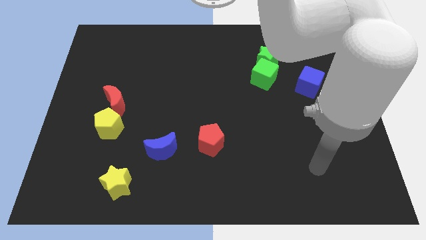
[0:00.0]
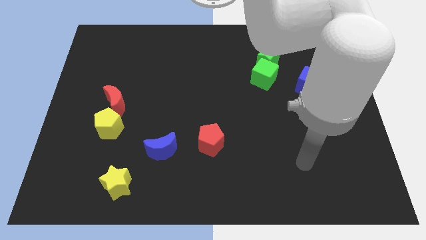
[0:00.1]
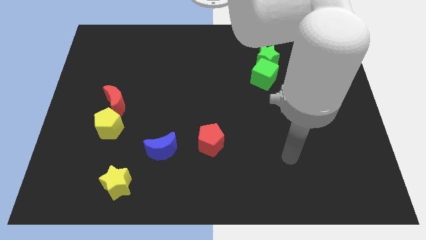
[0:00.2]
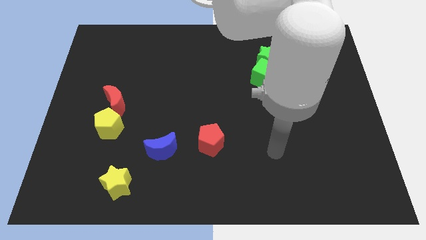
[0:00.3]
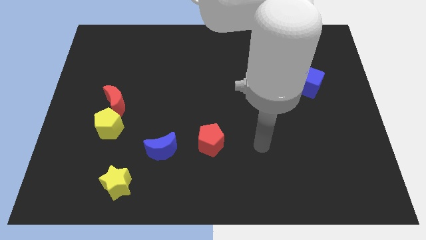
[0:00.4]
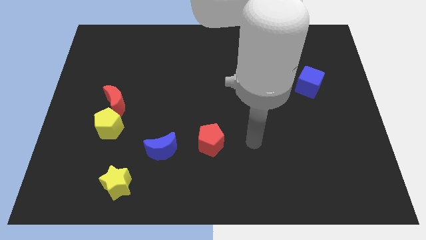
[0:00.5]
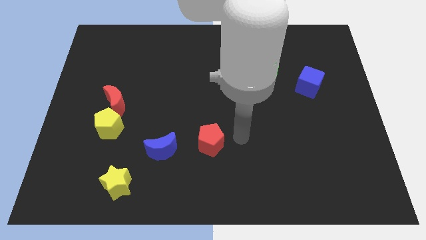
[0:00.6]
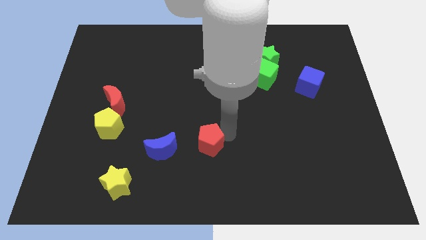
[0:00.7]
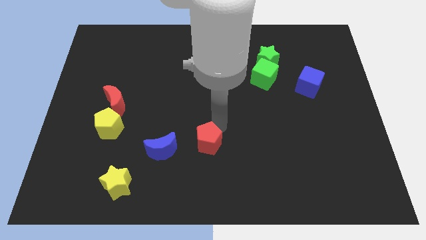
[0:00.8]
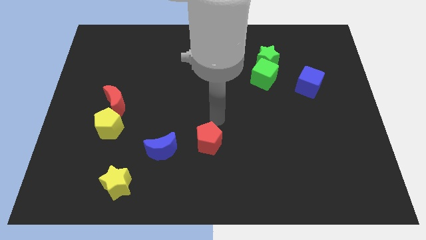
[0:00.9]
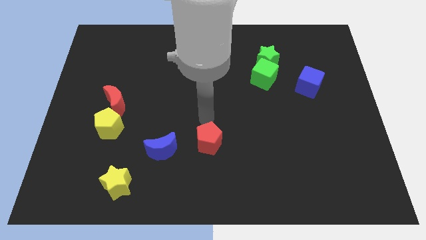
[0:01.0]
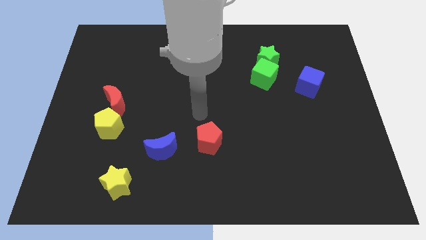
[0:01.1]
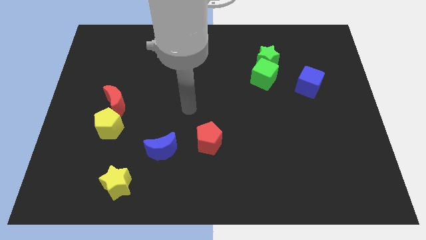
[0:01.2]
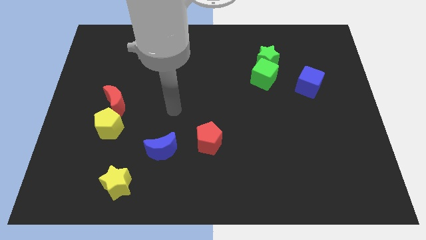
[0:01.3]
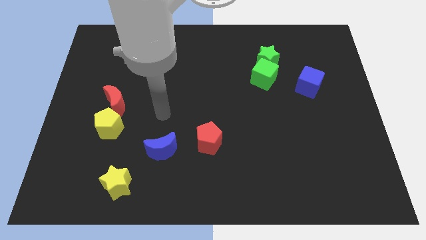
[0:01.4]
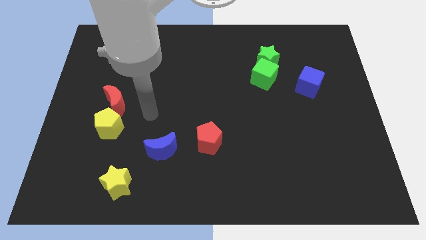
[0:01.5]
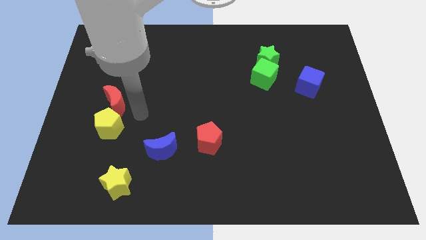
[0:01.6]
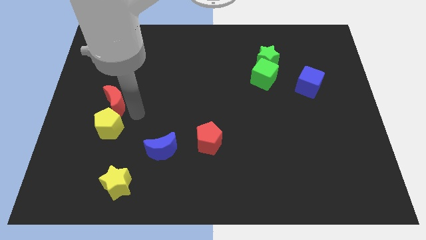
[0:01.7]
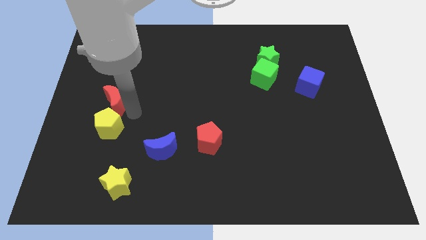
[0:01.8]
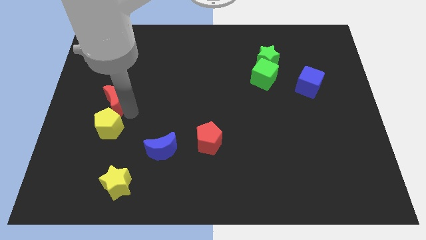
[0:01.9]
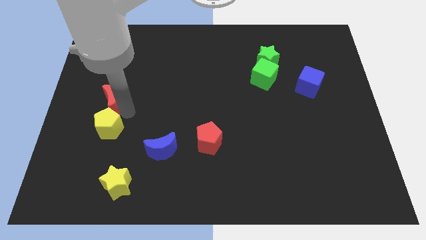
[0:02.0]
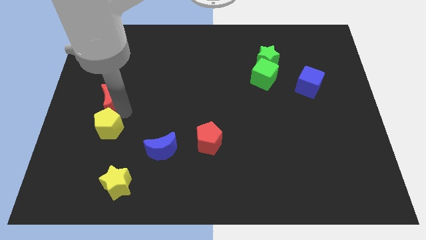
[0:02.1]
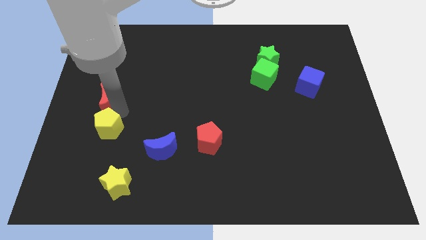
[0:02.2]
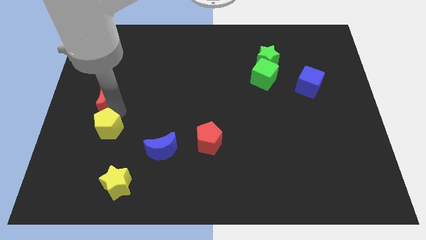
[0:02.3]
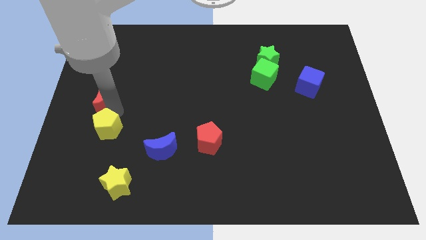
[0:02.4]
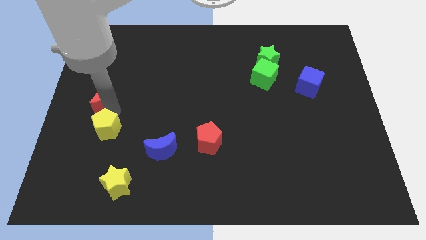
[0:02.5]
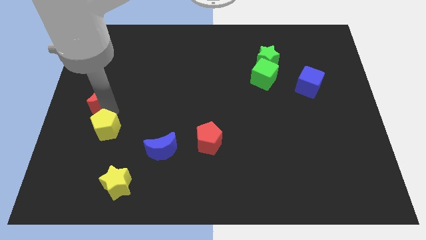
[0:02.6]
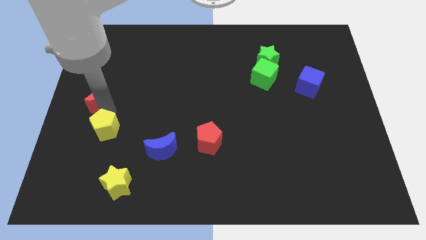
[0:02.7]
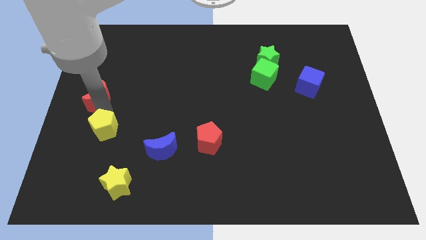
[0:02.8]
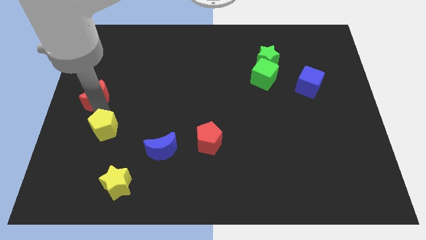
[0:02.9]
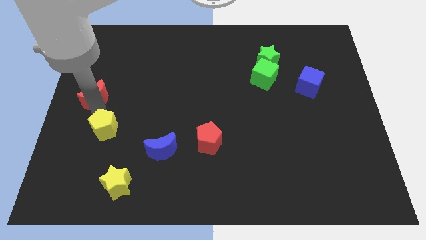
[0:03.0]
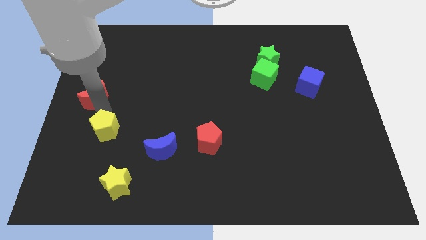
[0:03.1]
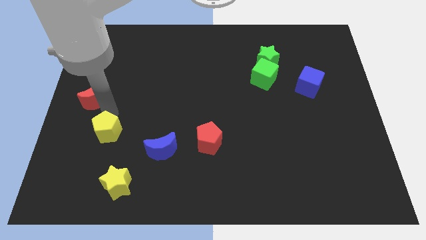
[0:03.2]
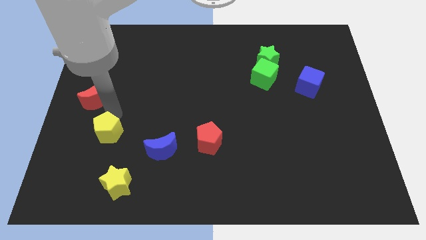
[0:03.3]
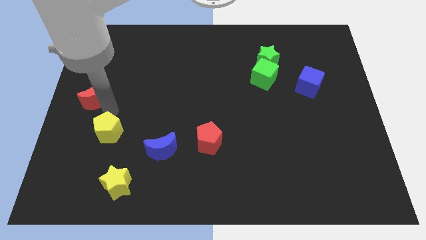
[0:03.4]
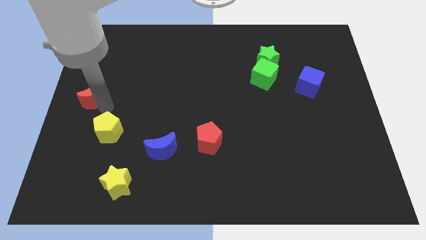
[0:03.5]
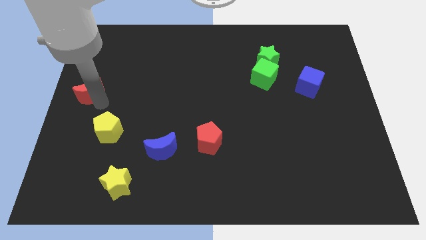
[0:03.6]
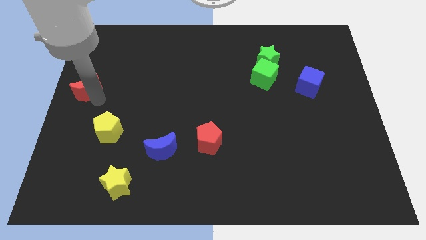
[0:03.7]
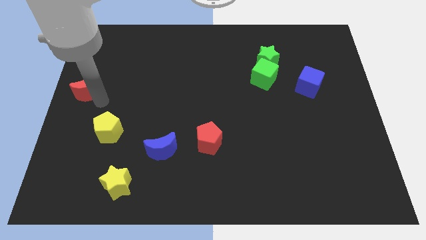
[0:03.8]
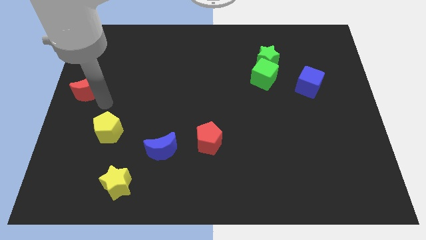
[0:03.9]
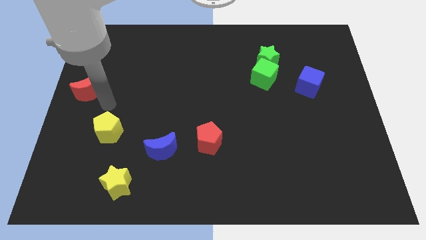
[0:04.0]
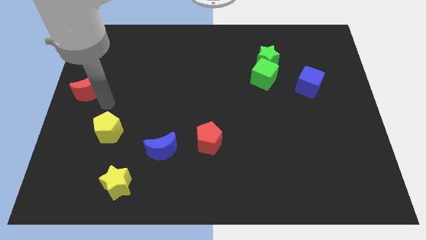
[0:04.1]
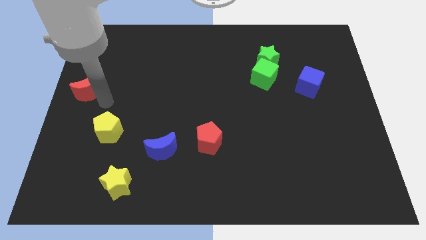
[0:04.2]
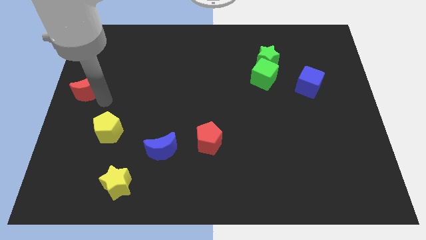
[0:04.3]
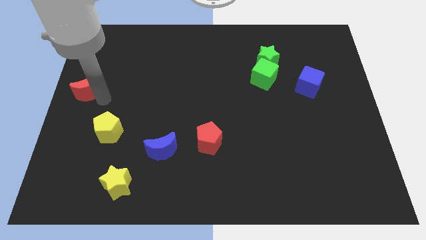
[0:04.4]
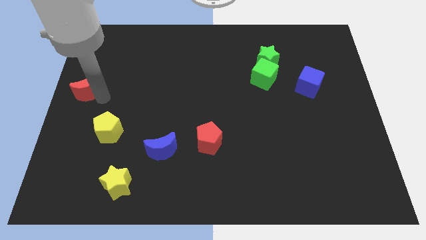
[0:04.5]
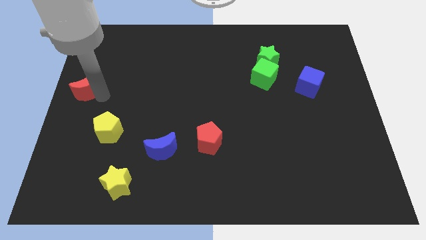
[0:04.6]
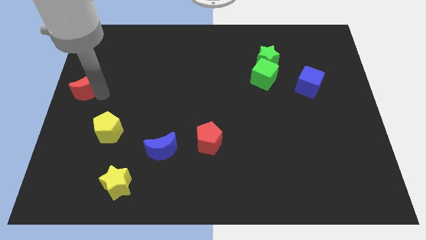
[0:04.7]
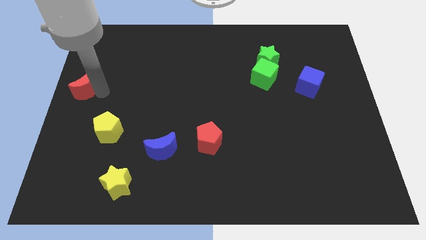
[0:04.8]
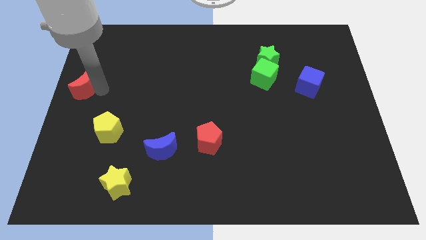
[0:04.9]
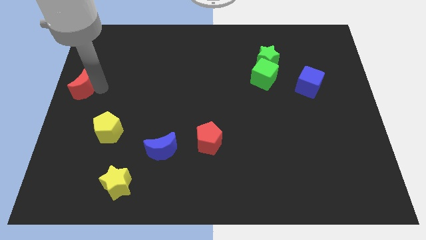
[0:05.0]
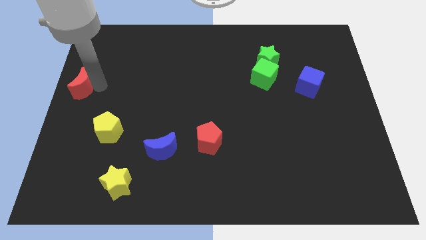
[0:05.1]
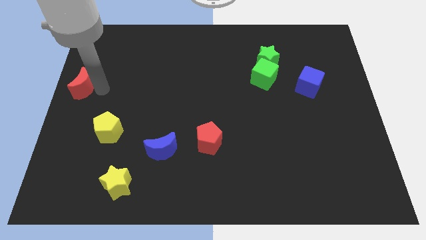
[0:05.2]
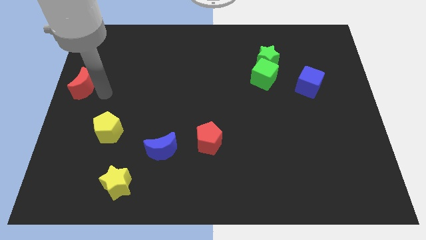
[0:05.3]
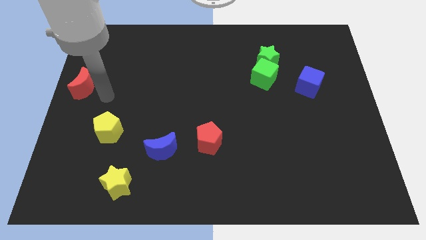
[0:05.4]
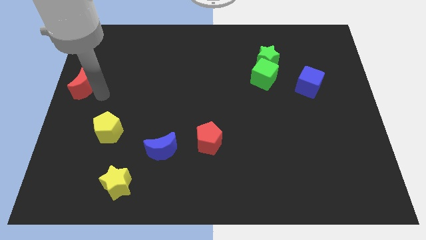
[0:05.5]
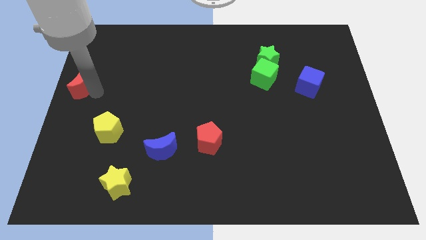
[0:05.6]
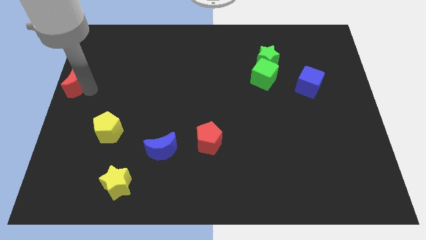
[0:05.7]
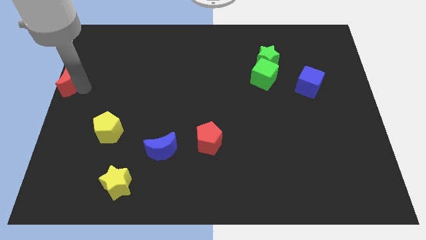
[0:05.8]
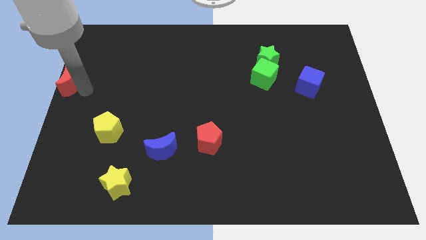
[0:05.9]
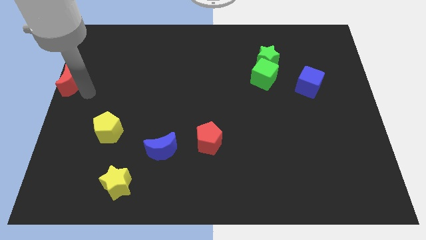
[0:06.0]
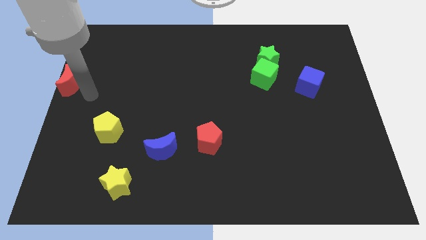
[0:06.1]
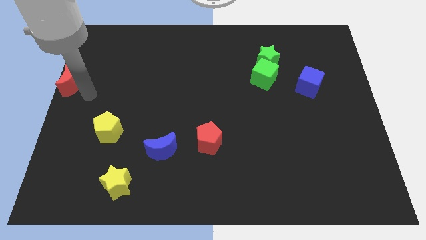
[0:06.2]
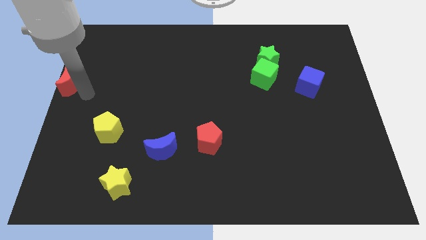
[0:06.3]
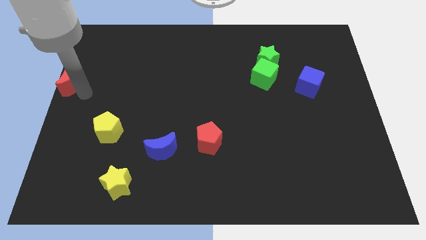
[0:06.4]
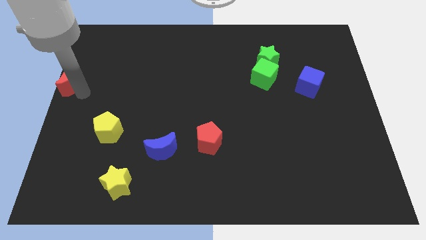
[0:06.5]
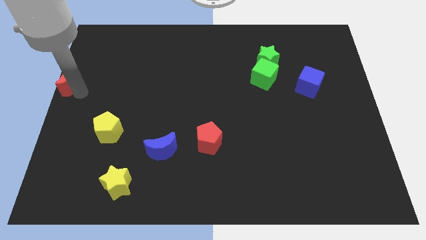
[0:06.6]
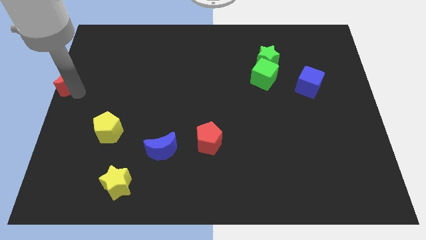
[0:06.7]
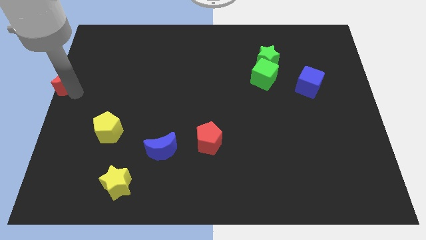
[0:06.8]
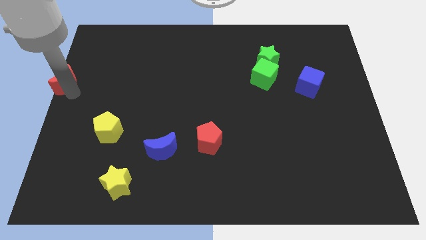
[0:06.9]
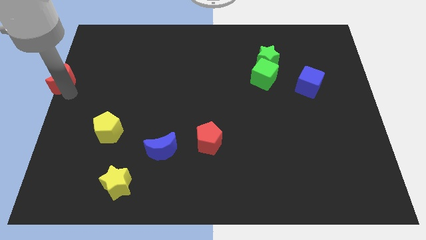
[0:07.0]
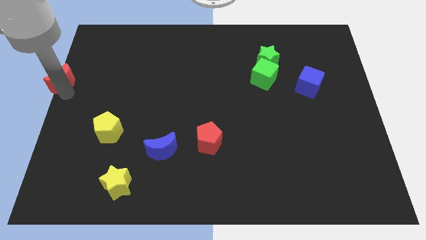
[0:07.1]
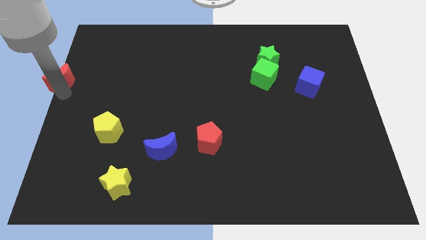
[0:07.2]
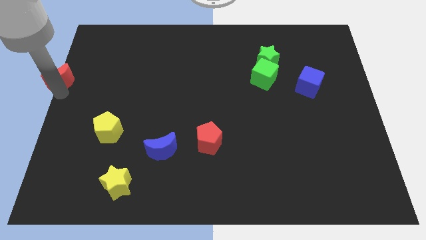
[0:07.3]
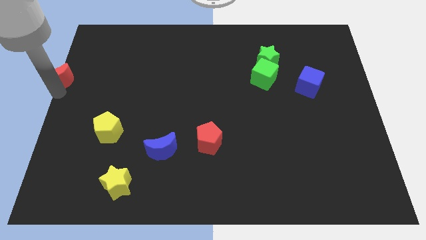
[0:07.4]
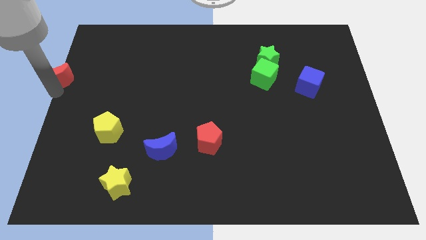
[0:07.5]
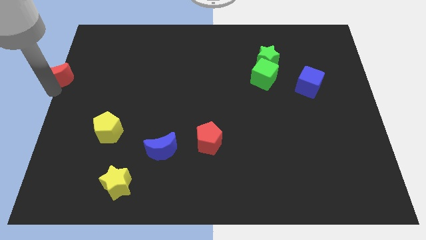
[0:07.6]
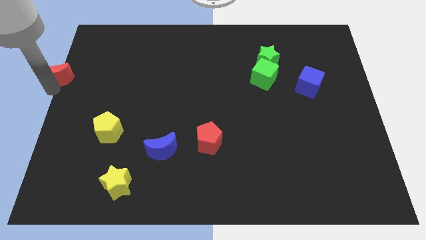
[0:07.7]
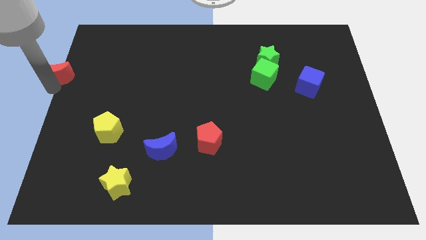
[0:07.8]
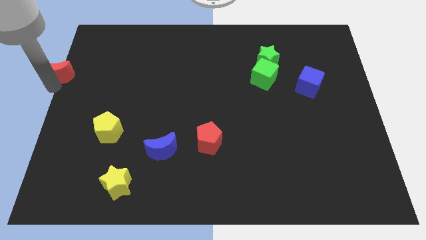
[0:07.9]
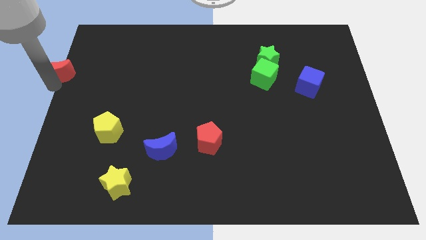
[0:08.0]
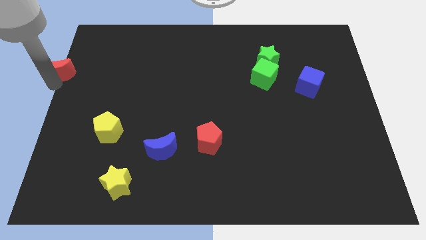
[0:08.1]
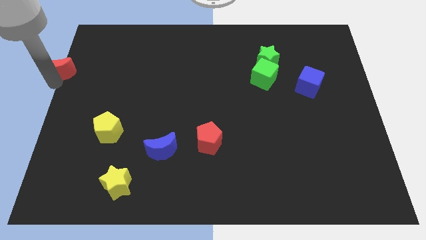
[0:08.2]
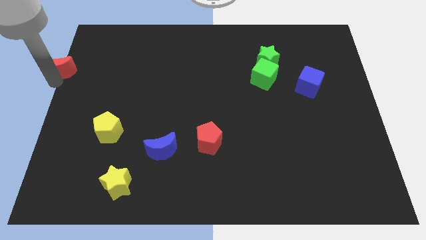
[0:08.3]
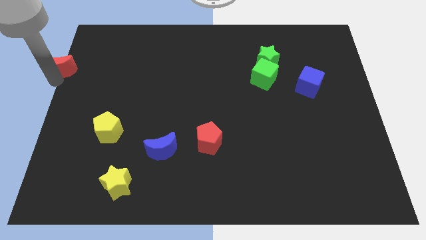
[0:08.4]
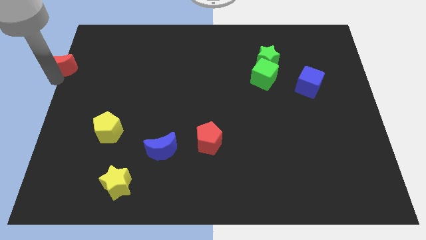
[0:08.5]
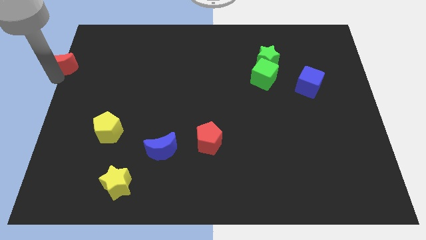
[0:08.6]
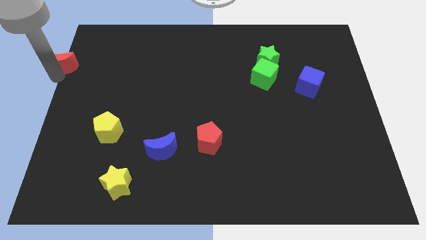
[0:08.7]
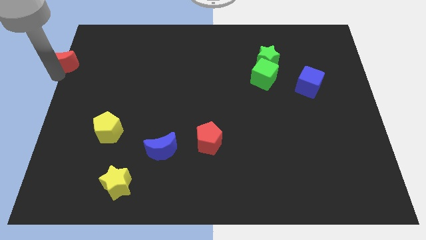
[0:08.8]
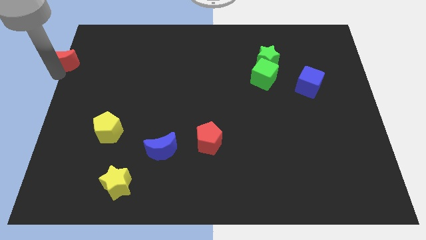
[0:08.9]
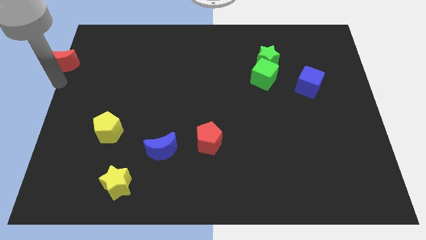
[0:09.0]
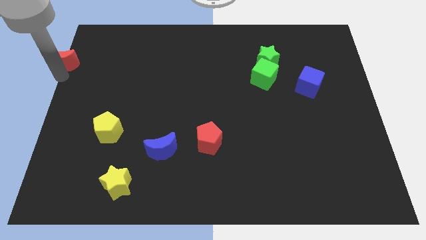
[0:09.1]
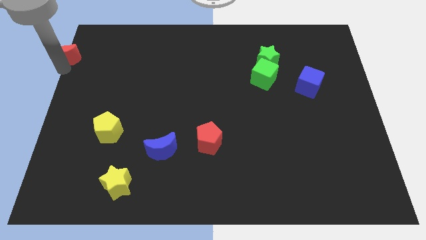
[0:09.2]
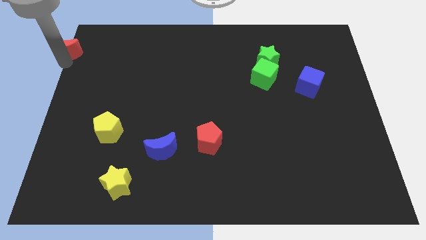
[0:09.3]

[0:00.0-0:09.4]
push the red moon to the top left
